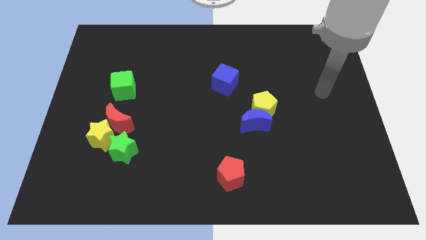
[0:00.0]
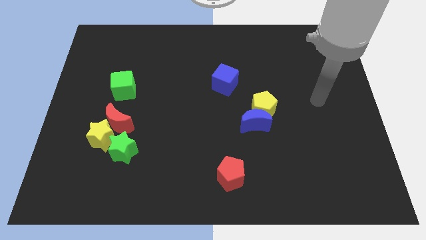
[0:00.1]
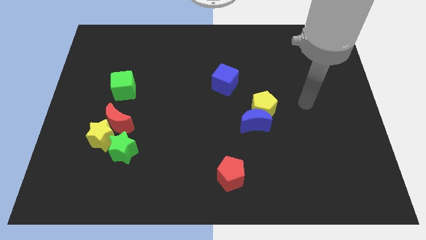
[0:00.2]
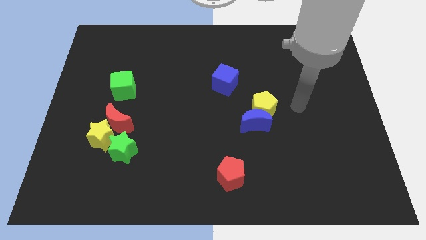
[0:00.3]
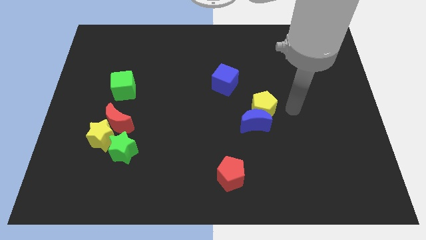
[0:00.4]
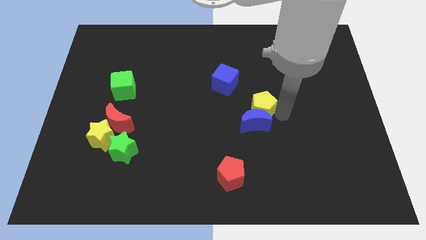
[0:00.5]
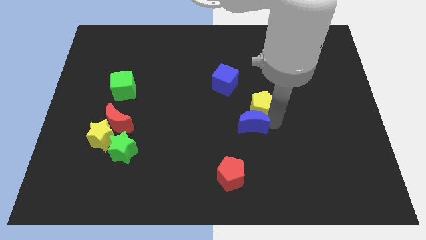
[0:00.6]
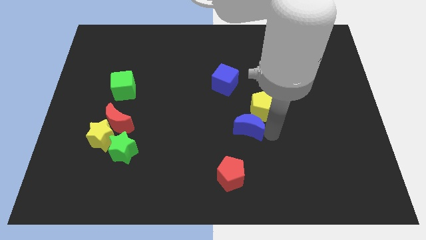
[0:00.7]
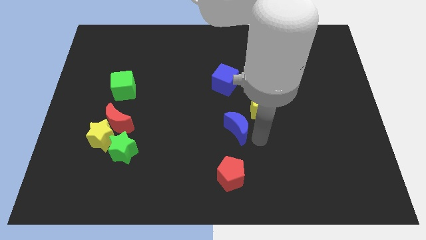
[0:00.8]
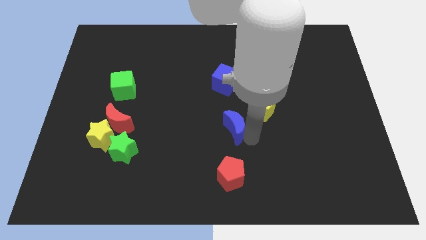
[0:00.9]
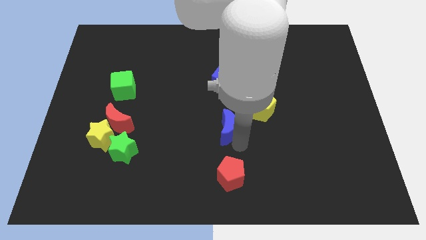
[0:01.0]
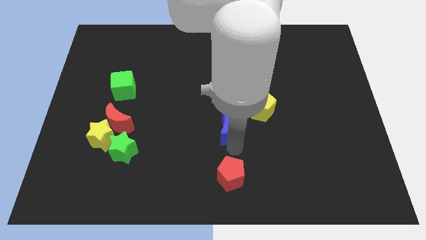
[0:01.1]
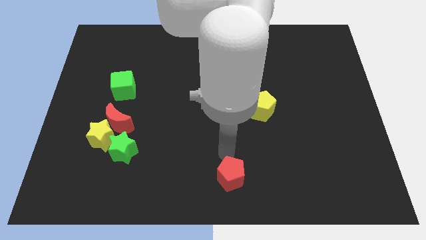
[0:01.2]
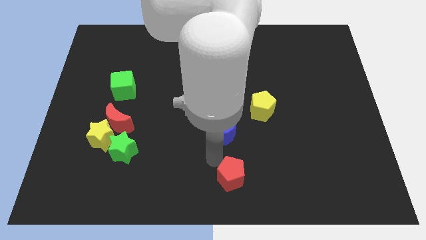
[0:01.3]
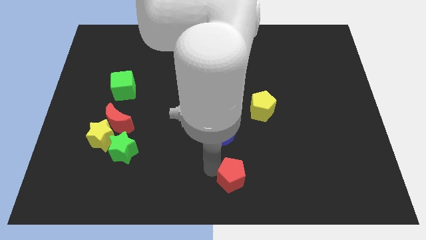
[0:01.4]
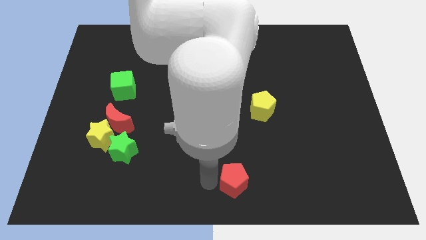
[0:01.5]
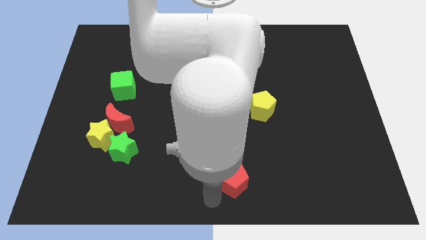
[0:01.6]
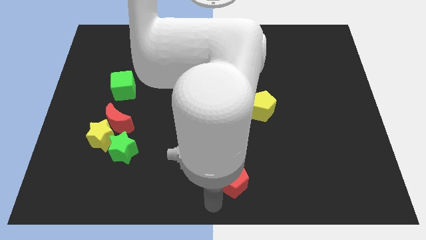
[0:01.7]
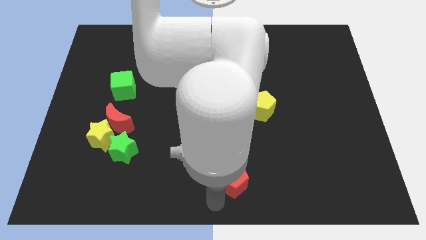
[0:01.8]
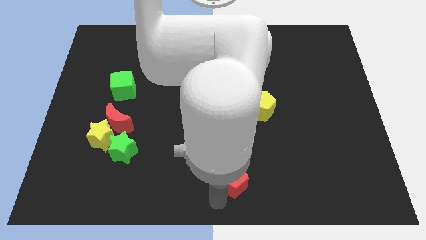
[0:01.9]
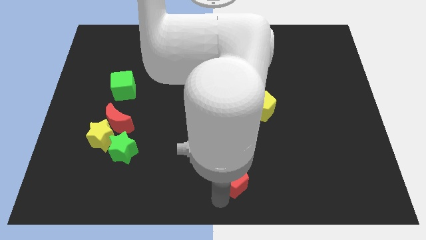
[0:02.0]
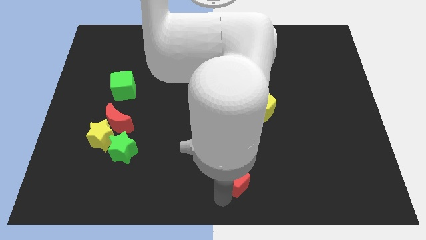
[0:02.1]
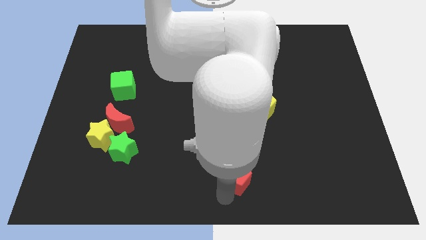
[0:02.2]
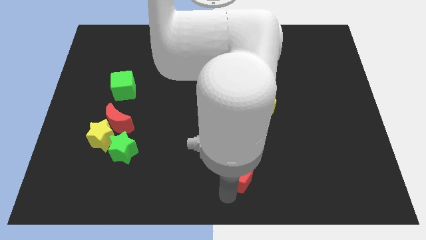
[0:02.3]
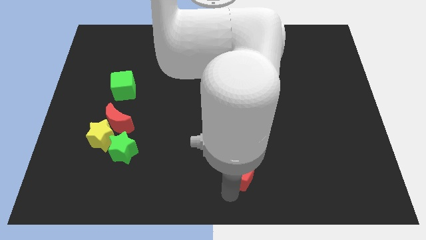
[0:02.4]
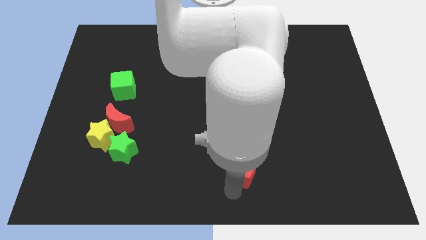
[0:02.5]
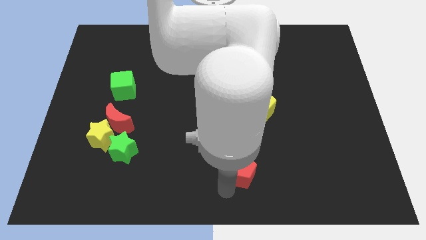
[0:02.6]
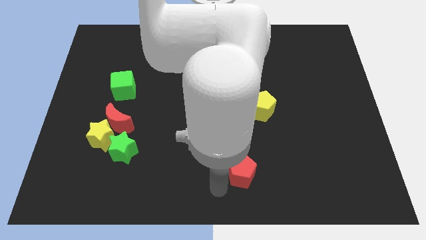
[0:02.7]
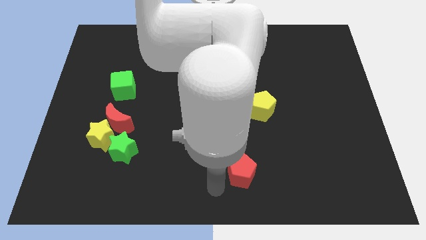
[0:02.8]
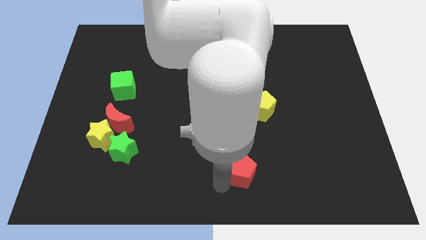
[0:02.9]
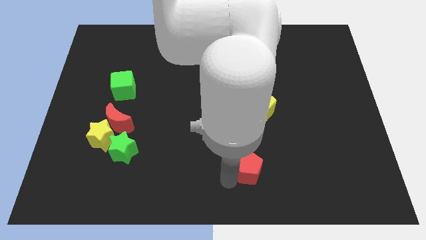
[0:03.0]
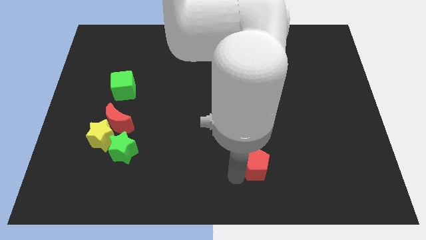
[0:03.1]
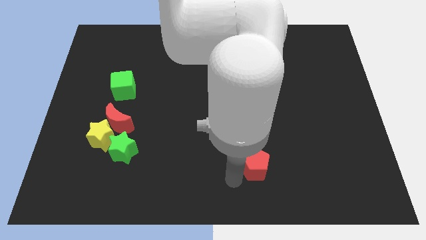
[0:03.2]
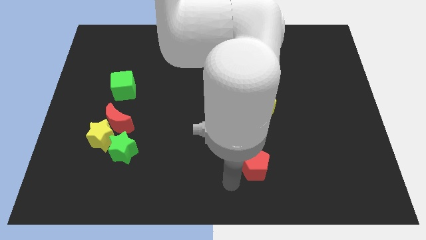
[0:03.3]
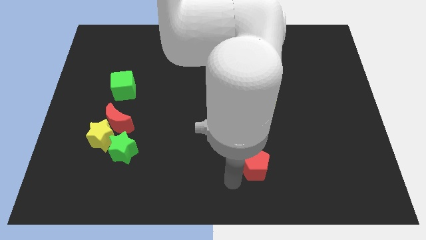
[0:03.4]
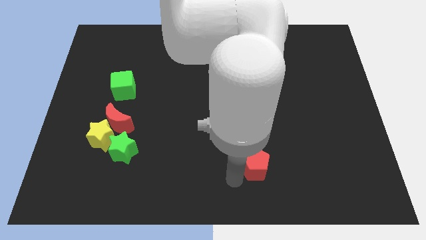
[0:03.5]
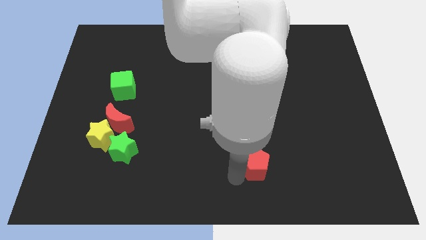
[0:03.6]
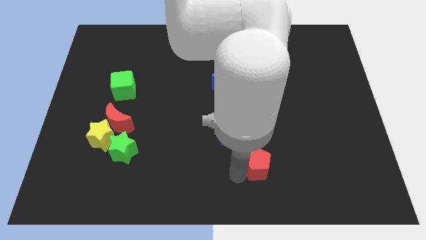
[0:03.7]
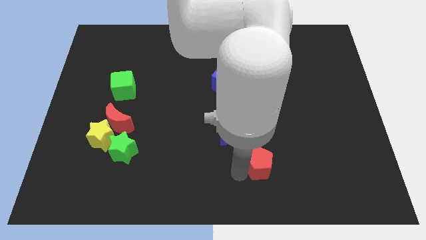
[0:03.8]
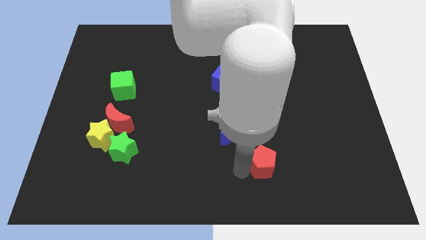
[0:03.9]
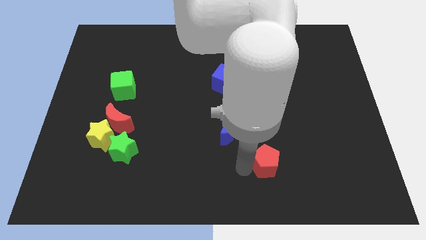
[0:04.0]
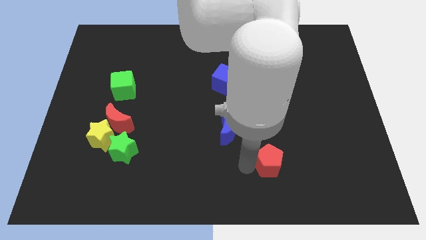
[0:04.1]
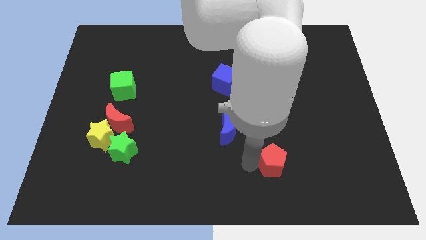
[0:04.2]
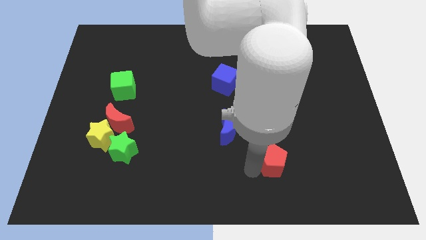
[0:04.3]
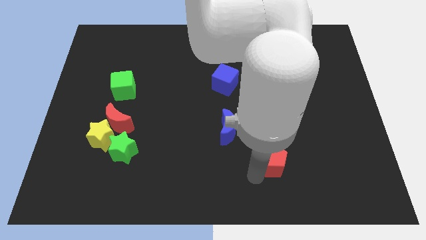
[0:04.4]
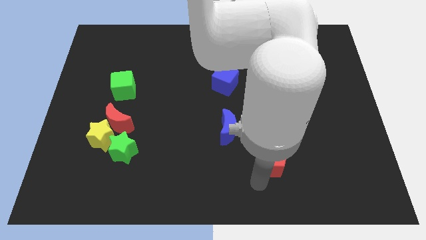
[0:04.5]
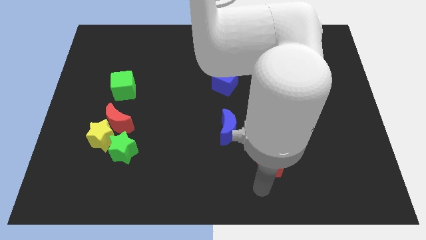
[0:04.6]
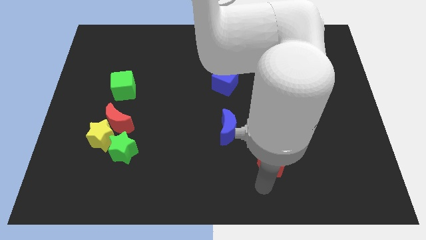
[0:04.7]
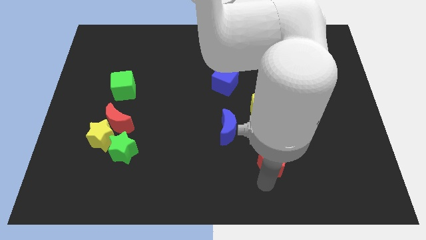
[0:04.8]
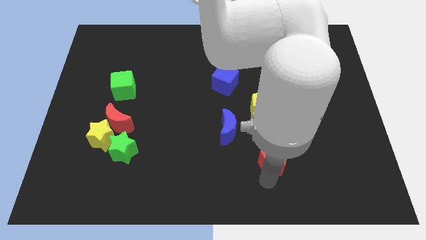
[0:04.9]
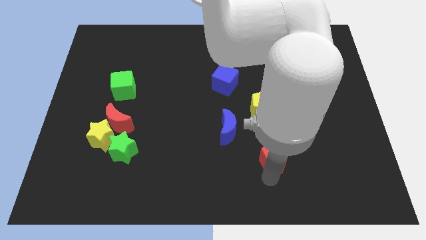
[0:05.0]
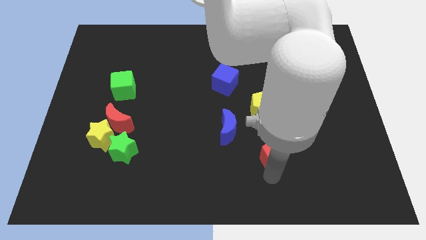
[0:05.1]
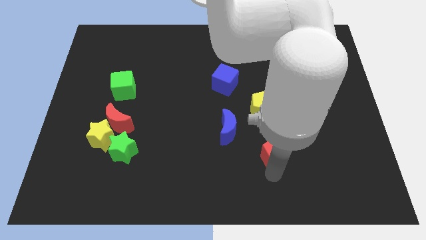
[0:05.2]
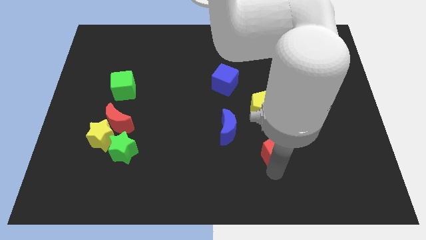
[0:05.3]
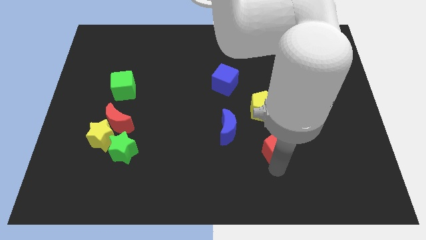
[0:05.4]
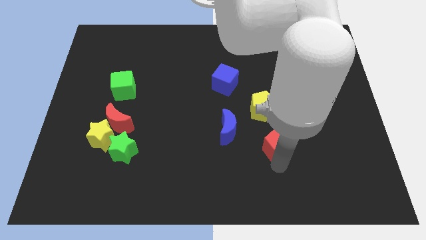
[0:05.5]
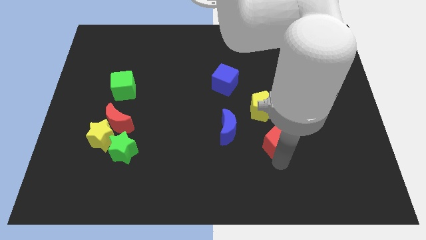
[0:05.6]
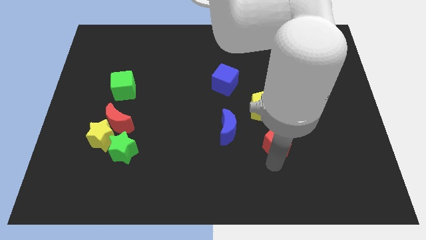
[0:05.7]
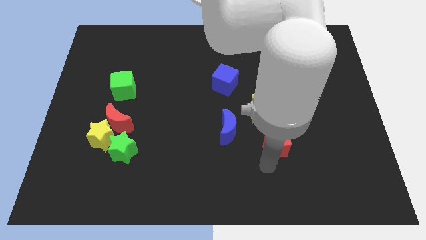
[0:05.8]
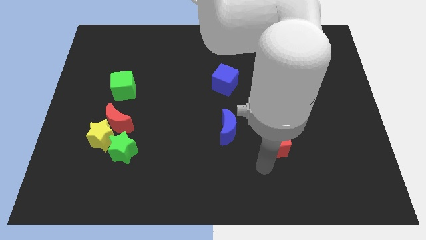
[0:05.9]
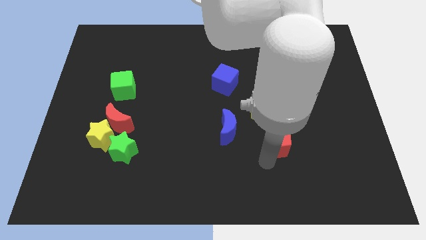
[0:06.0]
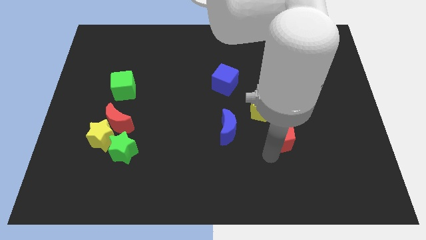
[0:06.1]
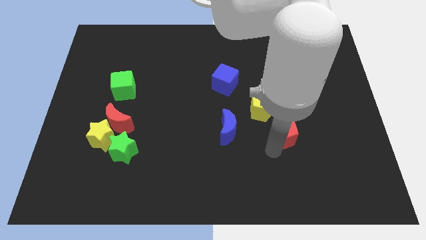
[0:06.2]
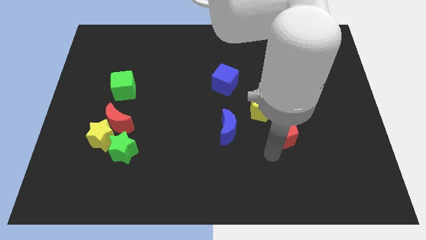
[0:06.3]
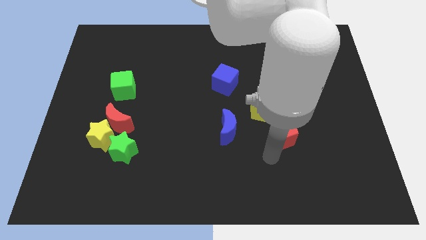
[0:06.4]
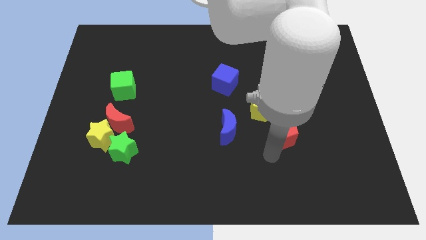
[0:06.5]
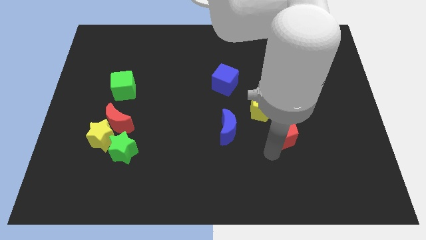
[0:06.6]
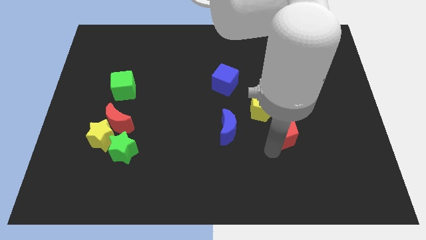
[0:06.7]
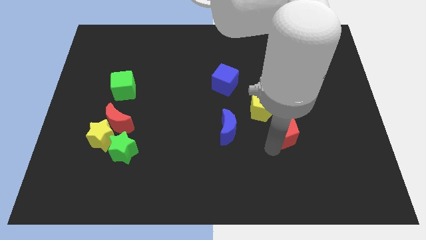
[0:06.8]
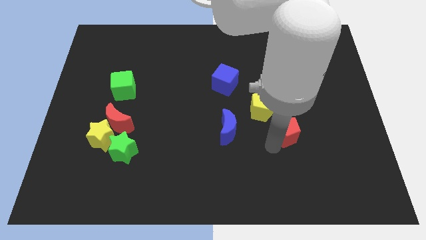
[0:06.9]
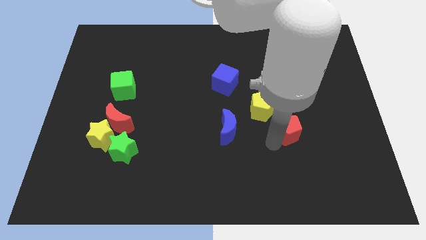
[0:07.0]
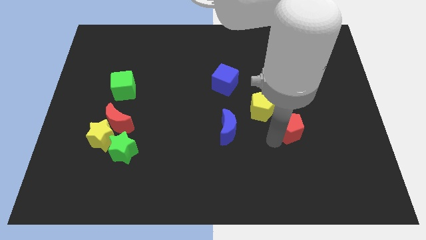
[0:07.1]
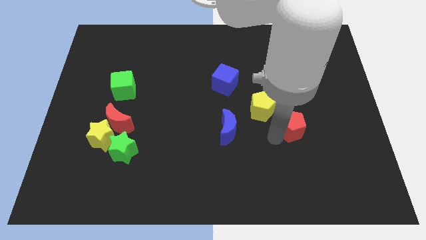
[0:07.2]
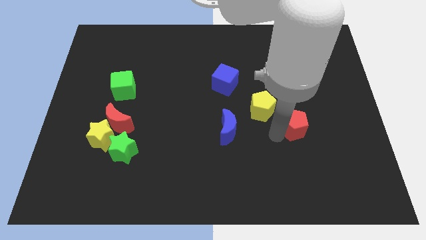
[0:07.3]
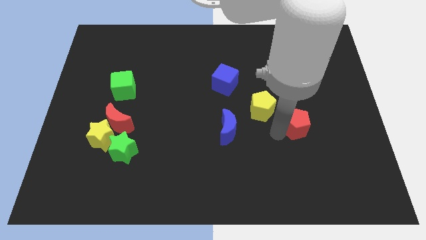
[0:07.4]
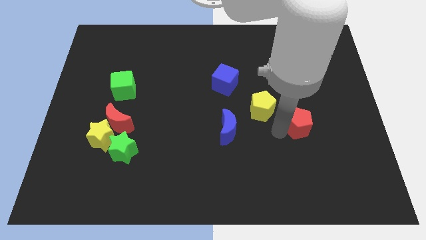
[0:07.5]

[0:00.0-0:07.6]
push the red pentagon up and to the right

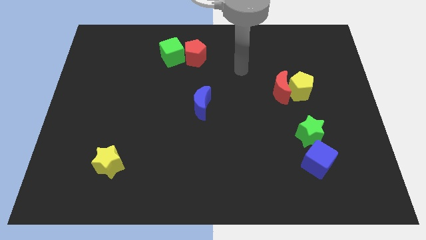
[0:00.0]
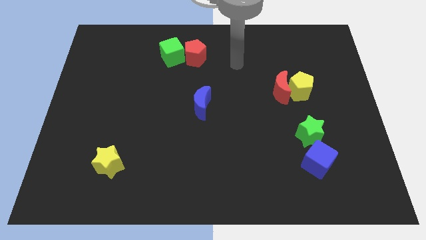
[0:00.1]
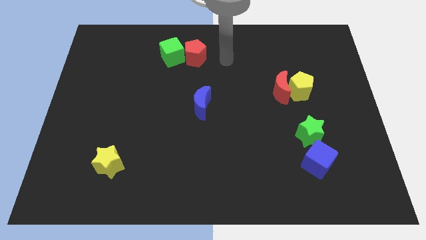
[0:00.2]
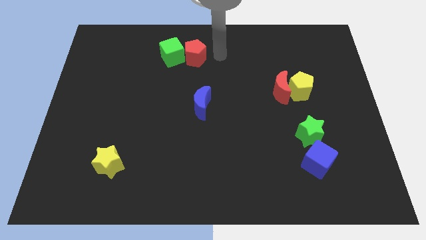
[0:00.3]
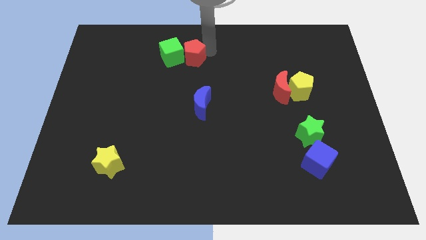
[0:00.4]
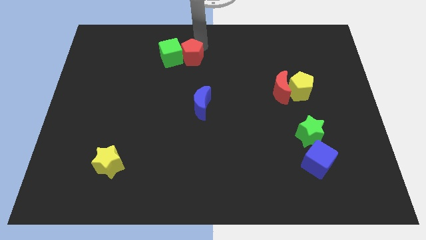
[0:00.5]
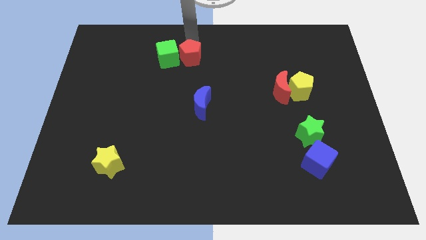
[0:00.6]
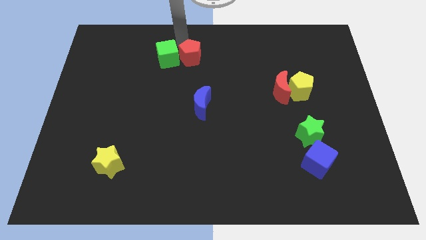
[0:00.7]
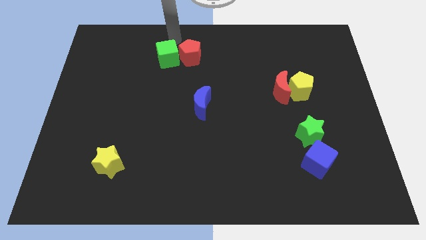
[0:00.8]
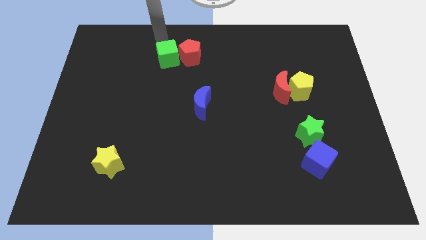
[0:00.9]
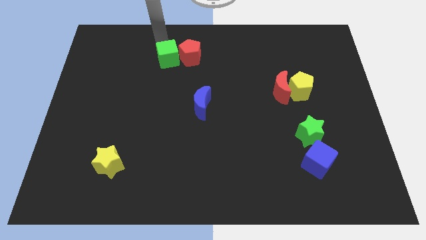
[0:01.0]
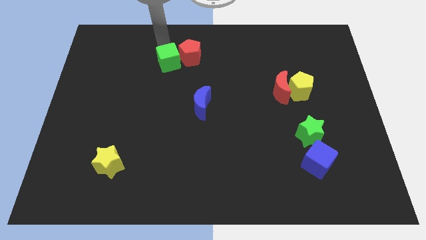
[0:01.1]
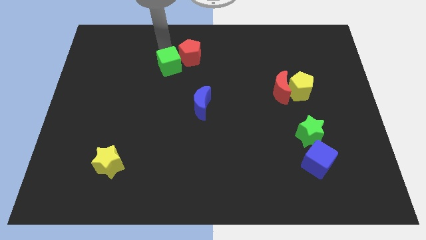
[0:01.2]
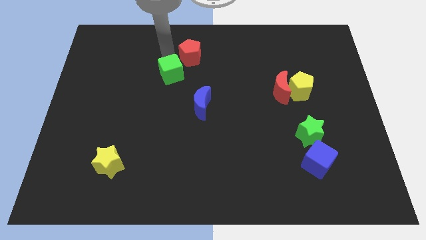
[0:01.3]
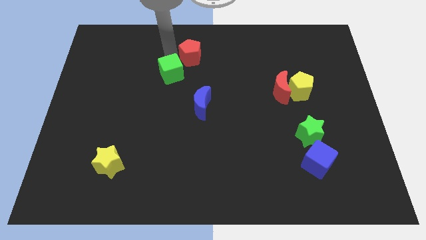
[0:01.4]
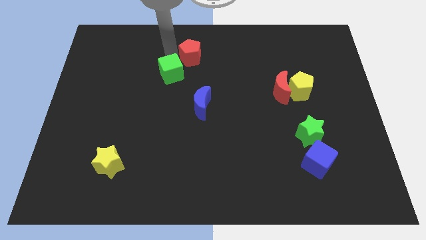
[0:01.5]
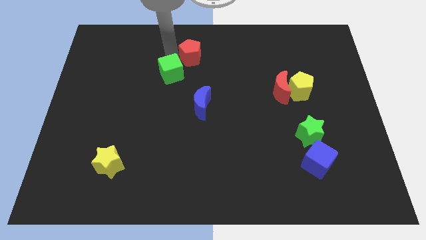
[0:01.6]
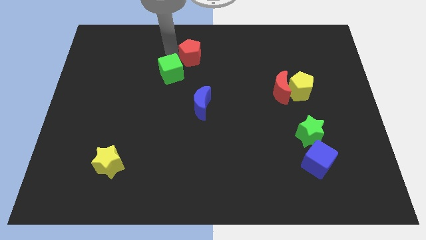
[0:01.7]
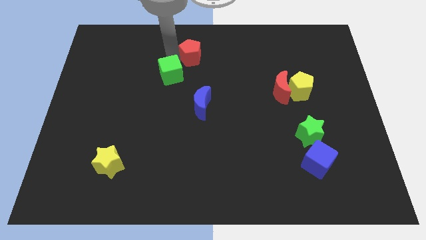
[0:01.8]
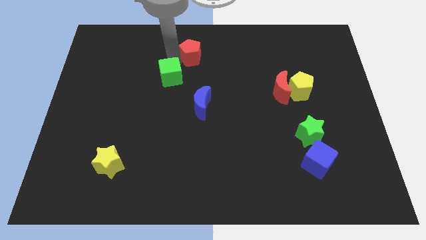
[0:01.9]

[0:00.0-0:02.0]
move the green cube a little downwards
